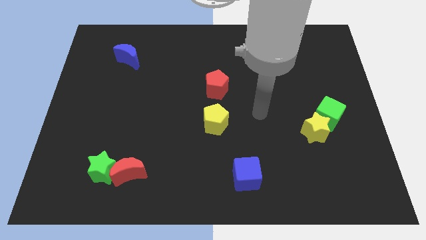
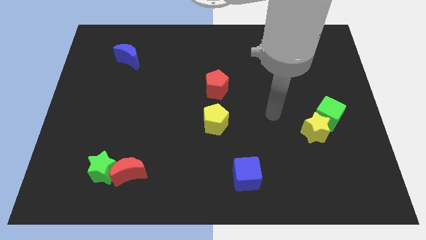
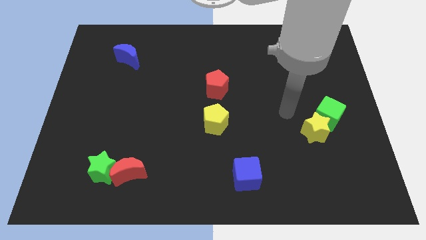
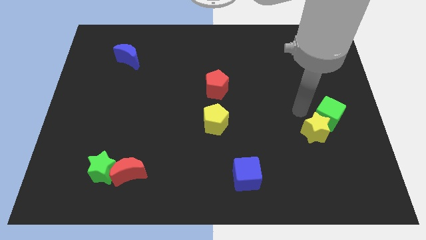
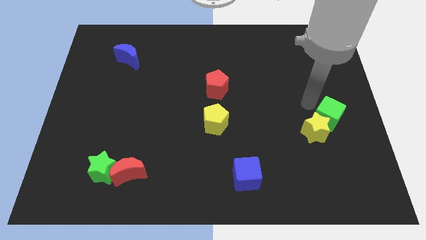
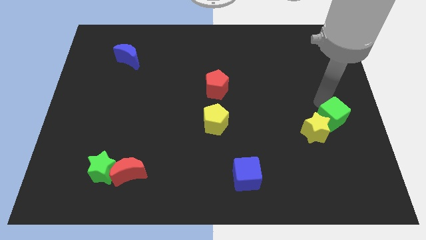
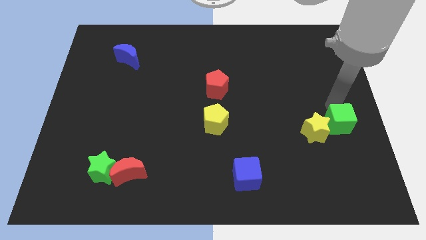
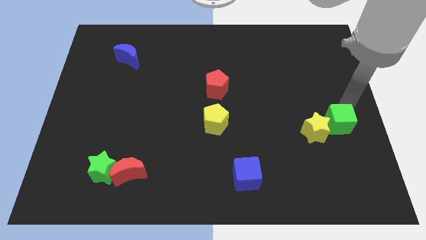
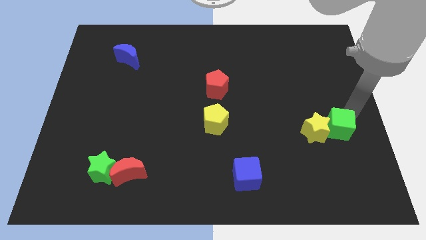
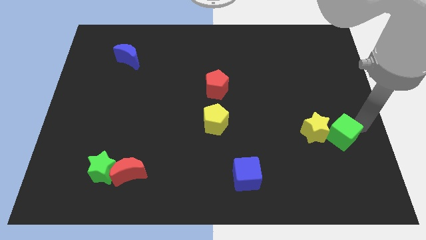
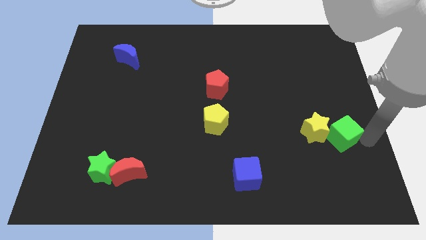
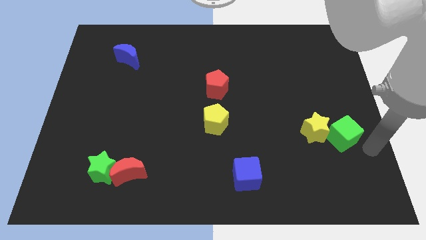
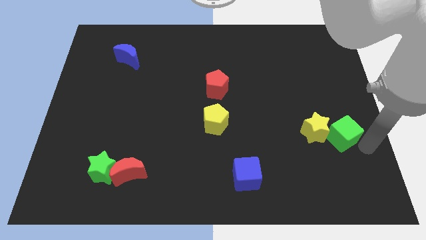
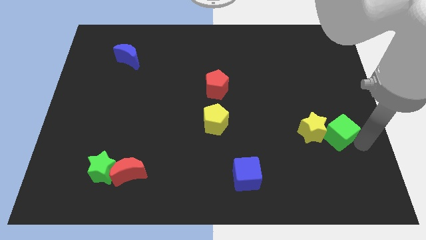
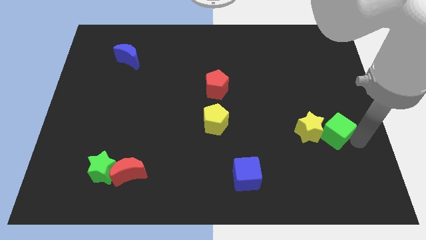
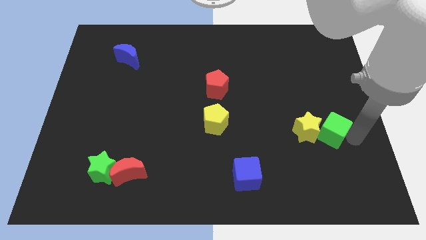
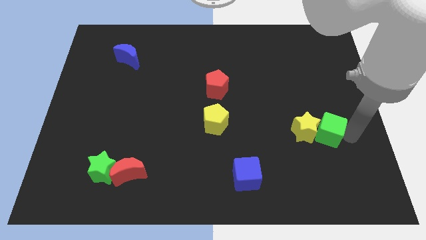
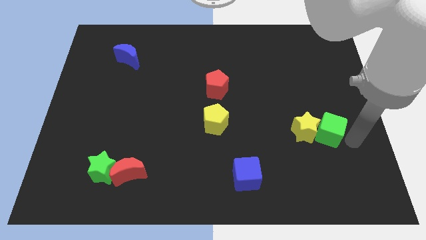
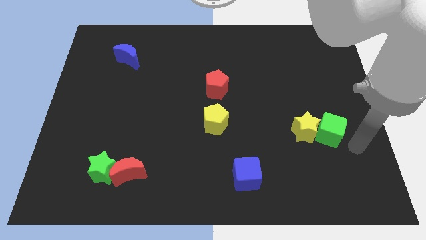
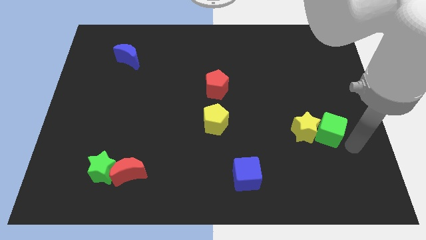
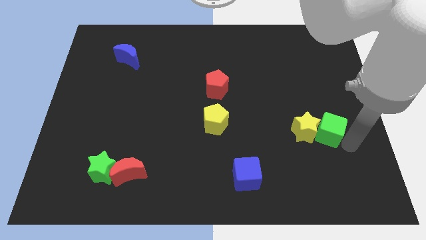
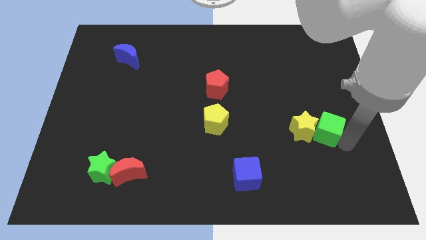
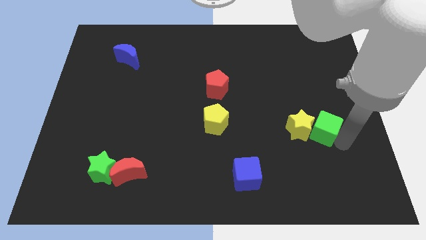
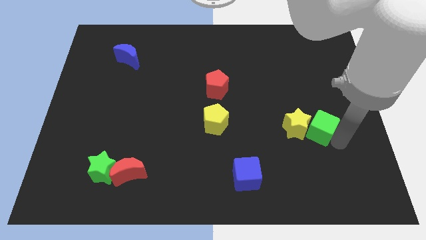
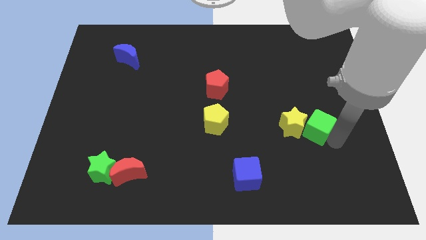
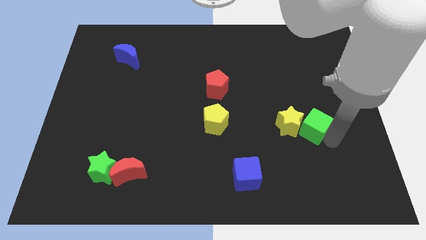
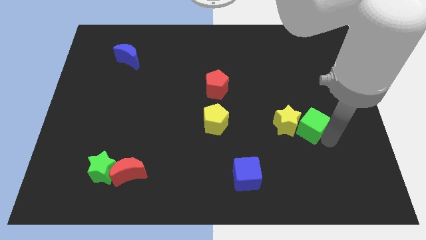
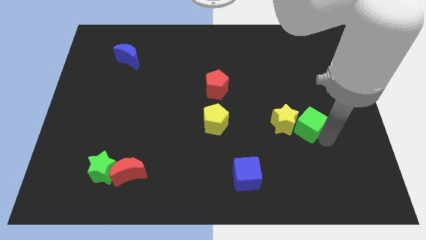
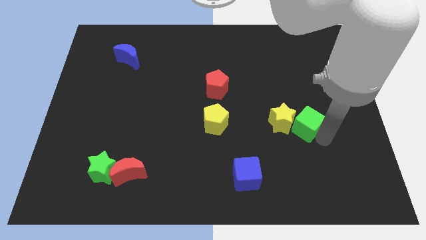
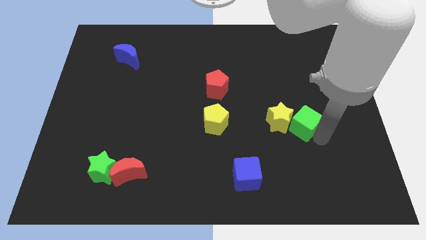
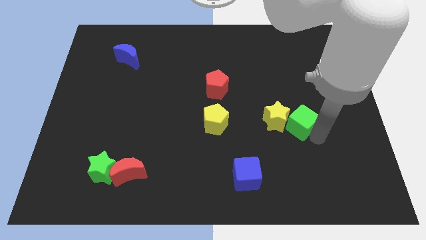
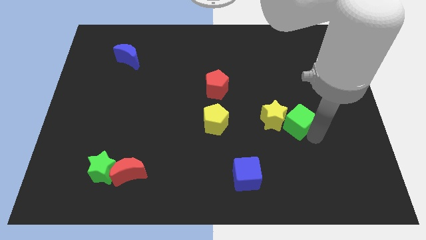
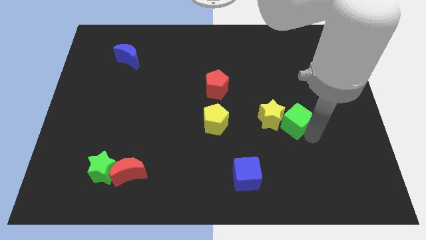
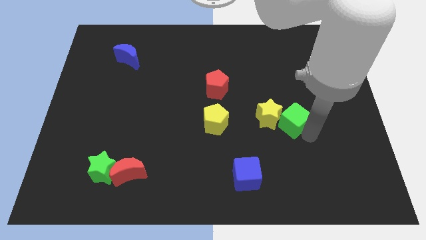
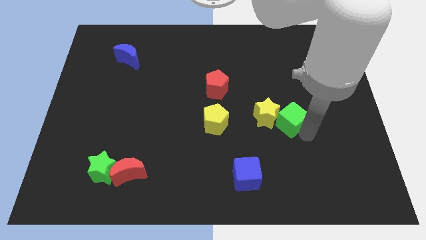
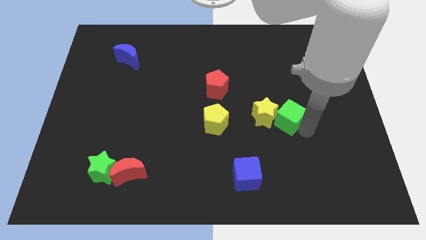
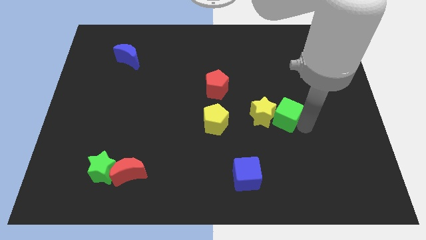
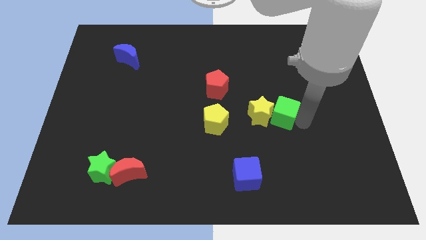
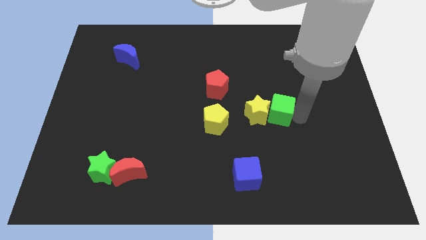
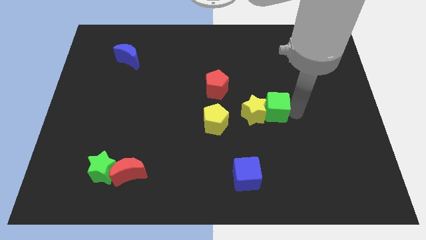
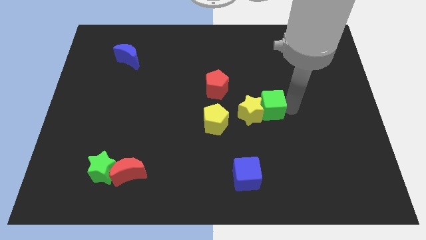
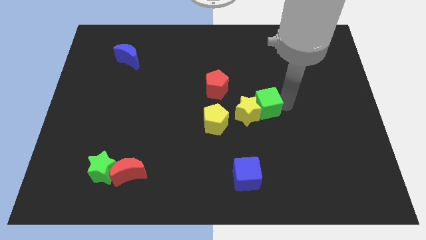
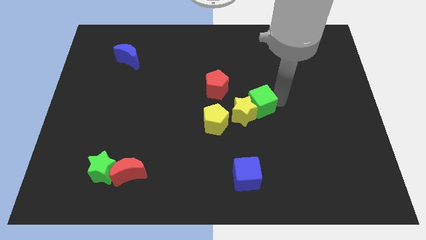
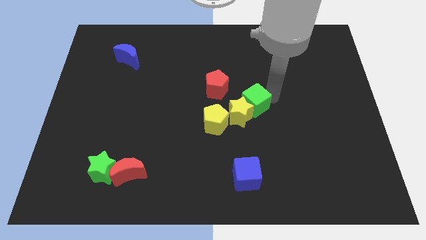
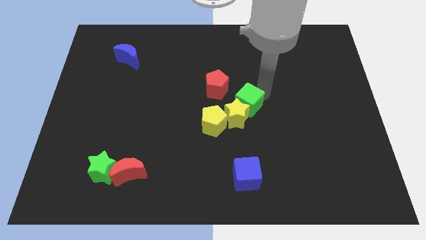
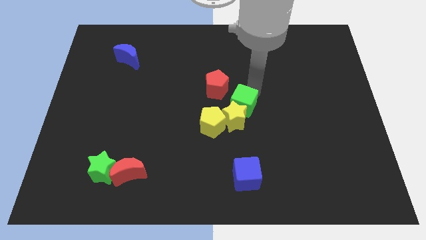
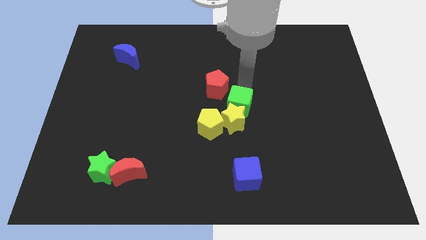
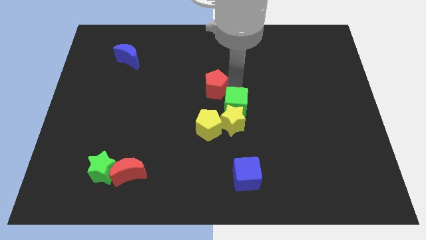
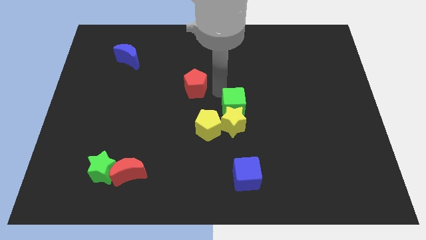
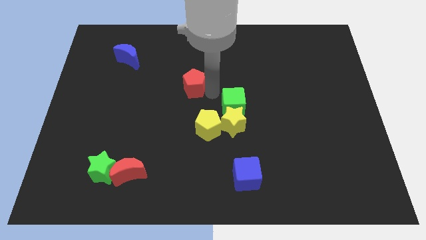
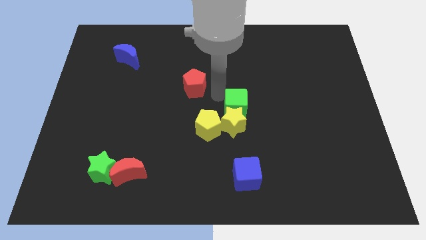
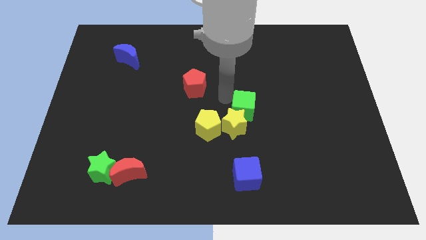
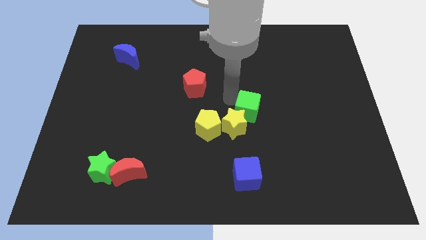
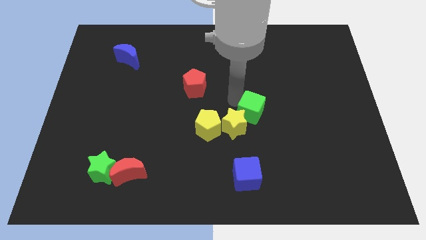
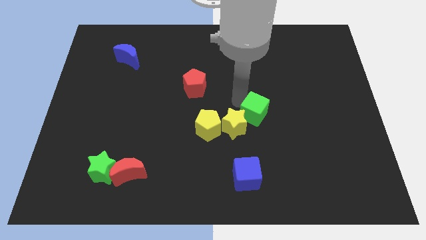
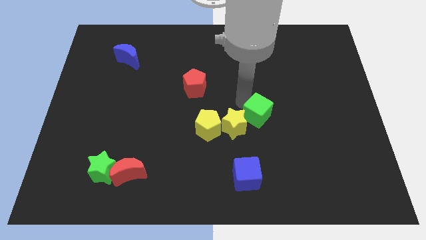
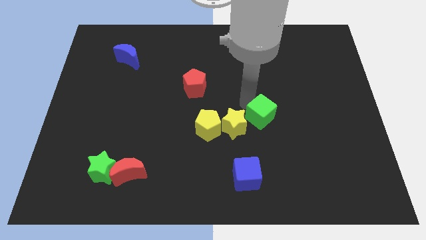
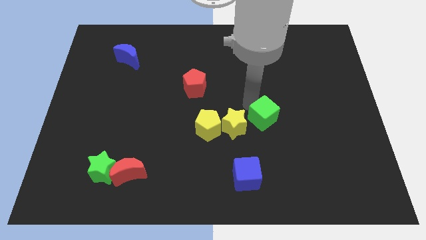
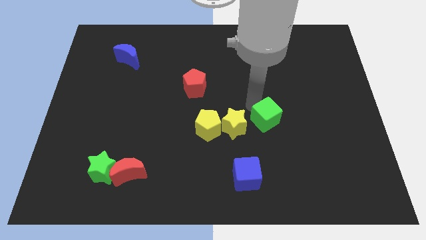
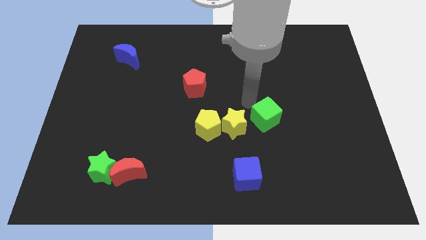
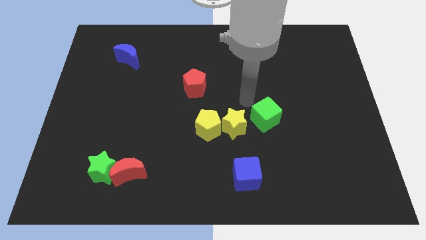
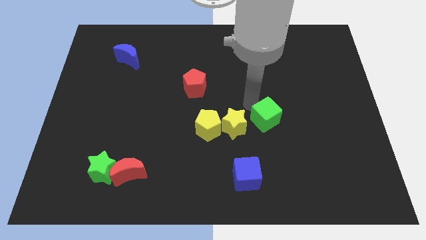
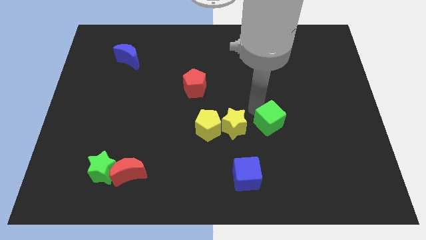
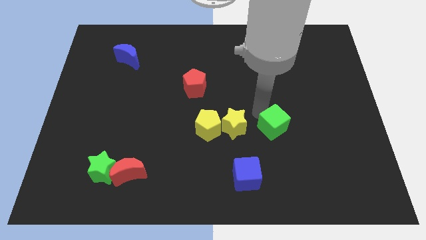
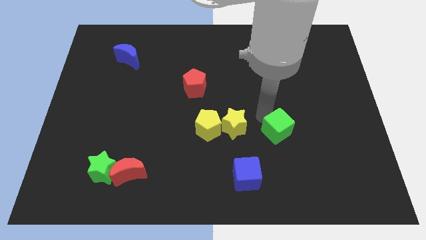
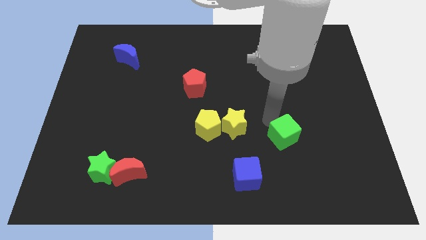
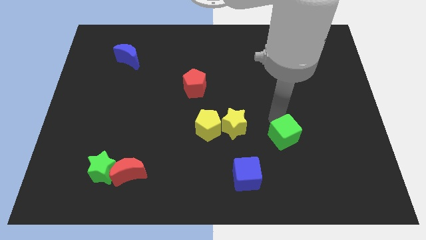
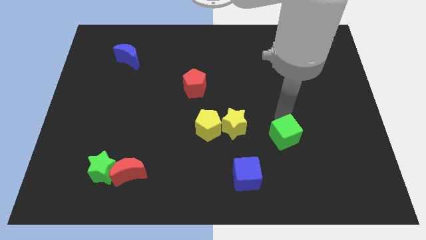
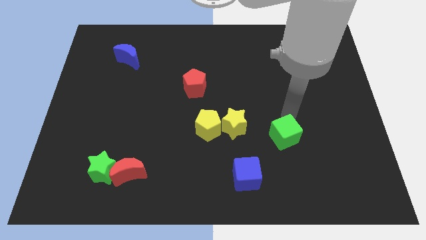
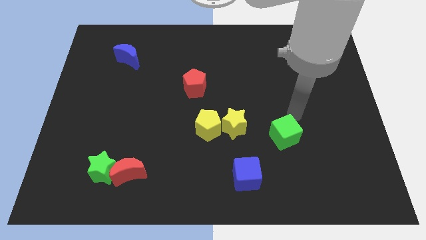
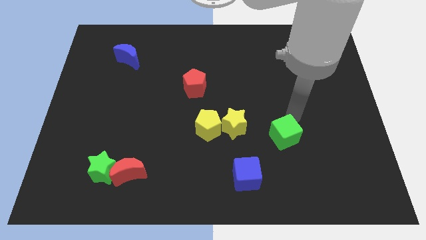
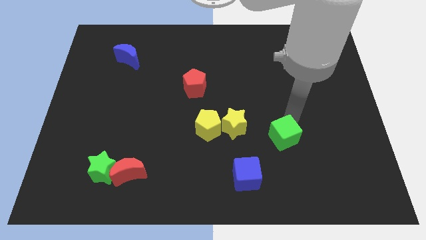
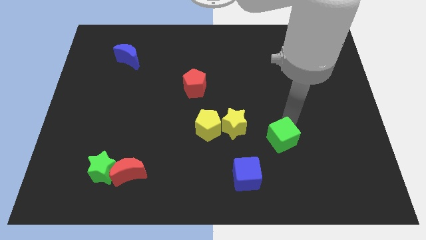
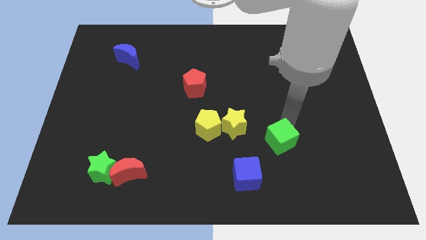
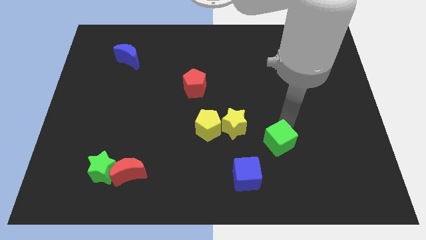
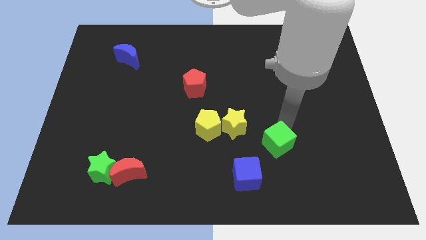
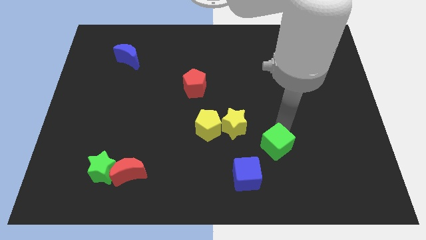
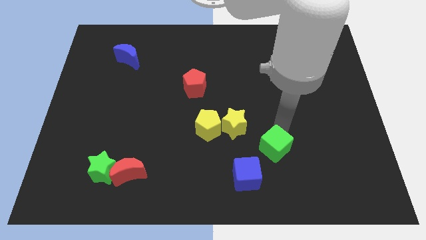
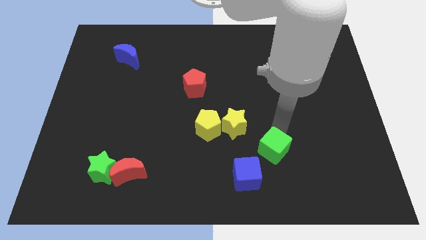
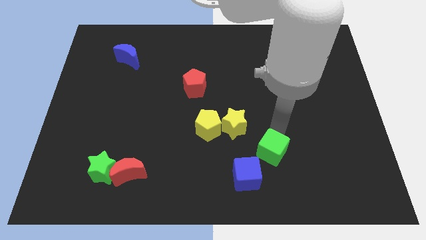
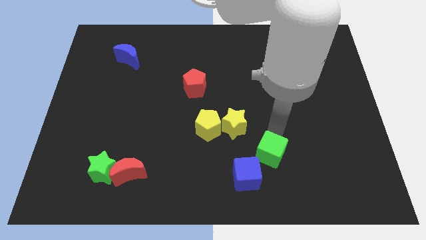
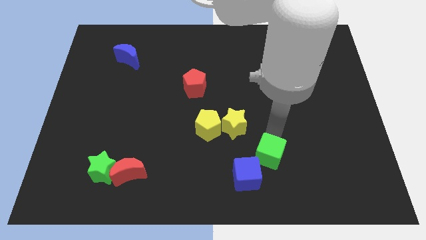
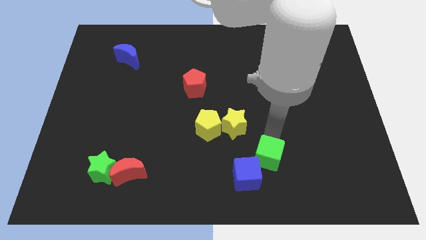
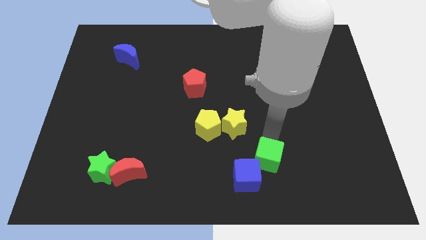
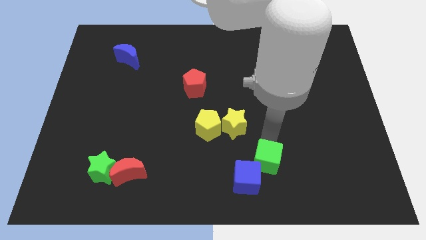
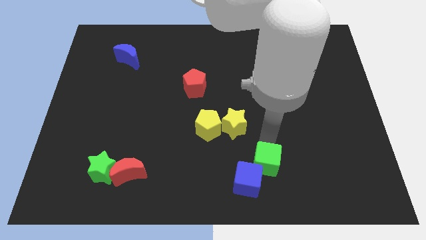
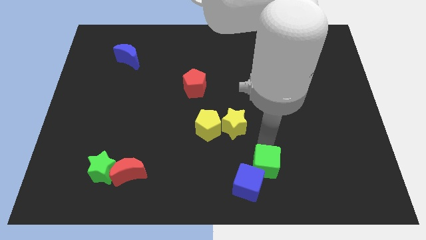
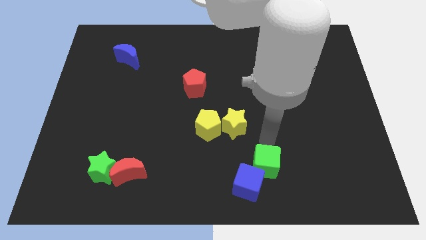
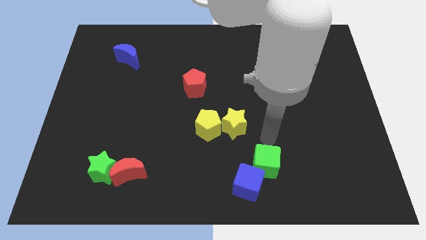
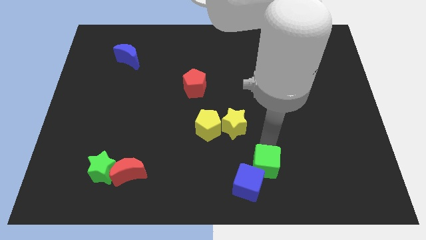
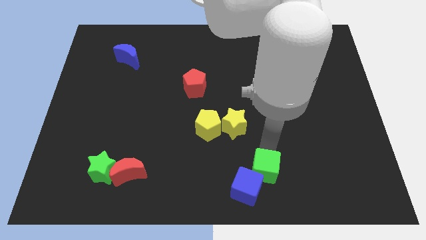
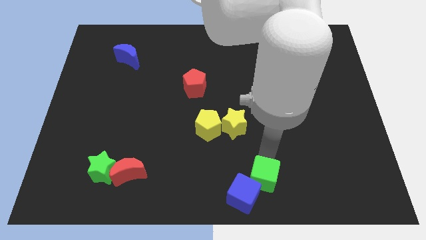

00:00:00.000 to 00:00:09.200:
slide the green cube to the bottom side
